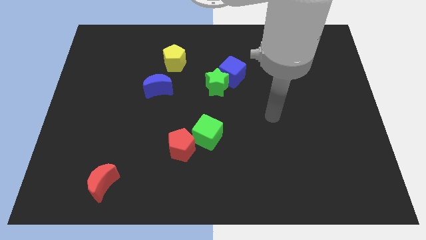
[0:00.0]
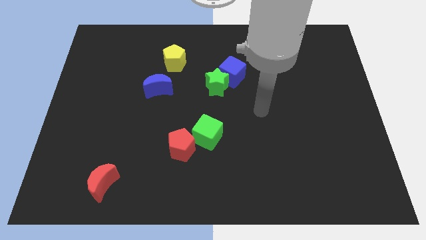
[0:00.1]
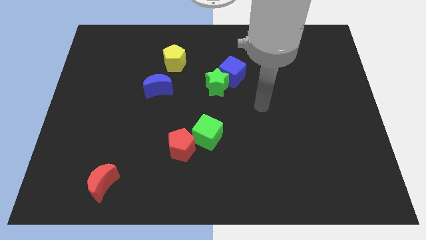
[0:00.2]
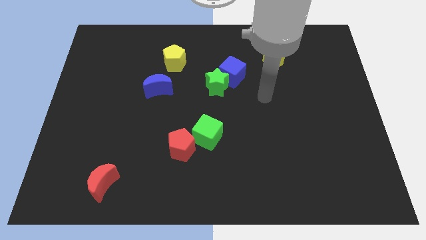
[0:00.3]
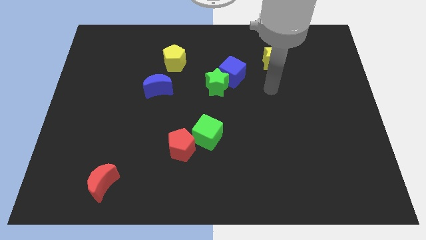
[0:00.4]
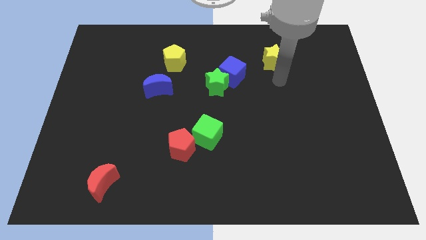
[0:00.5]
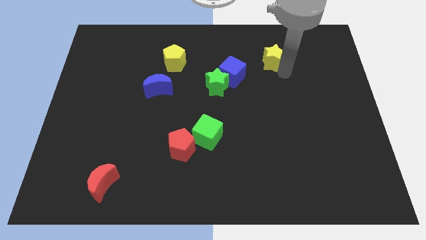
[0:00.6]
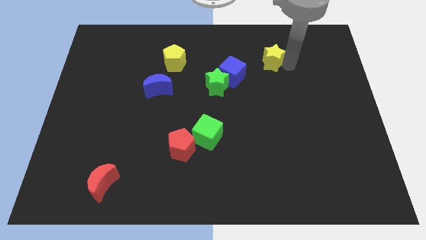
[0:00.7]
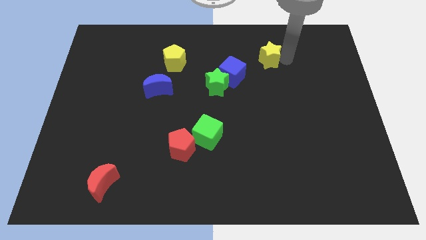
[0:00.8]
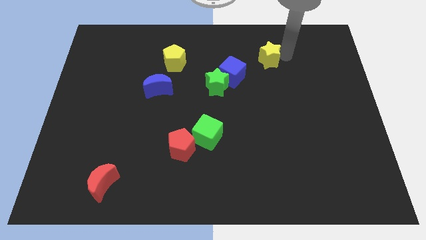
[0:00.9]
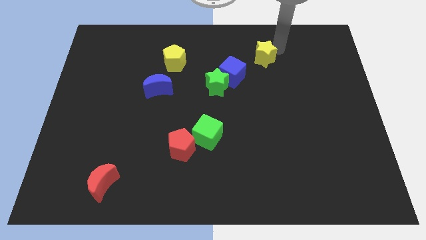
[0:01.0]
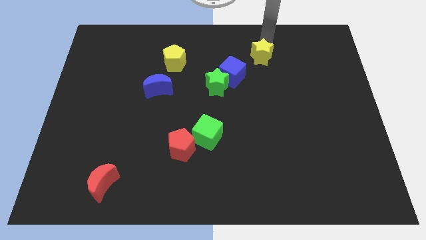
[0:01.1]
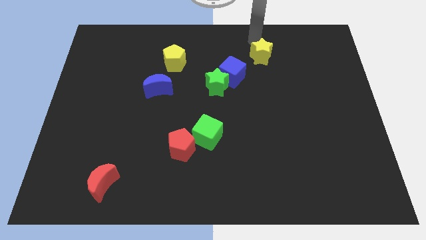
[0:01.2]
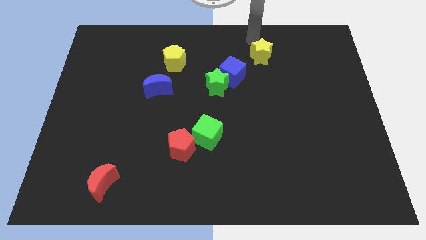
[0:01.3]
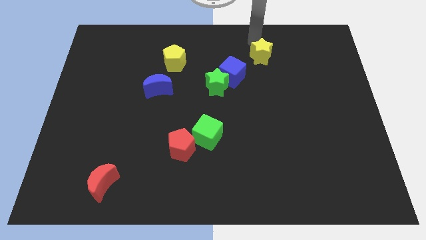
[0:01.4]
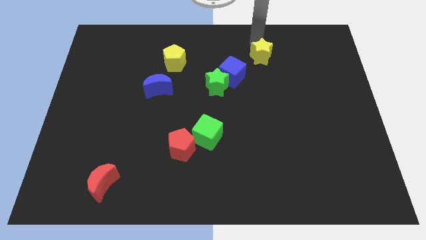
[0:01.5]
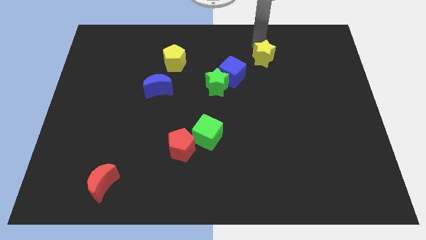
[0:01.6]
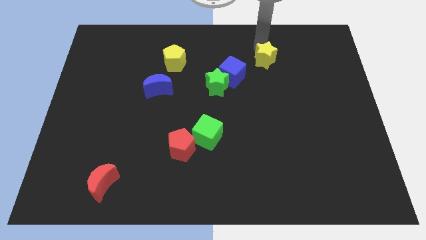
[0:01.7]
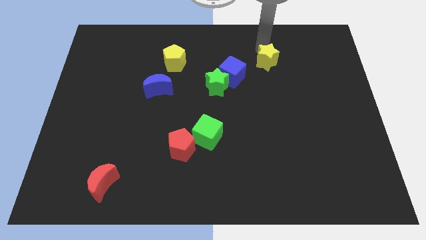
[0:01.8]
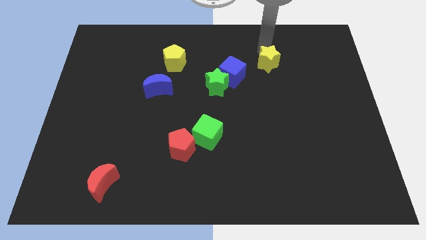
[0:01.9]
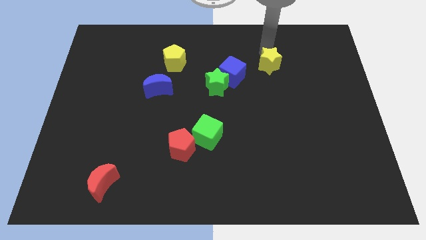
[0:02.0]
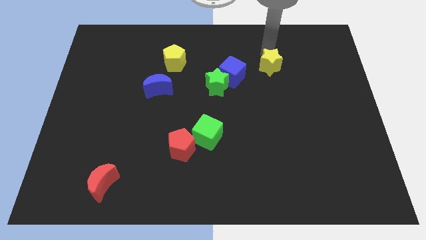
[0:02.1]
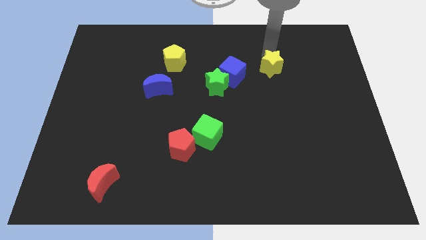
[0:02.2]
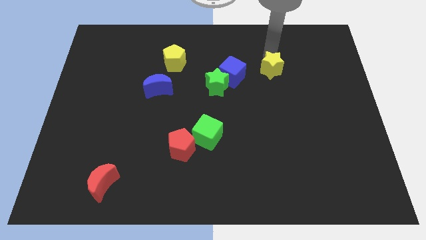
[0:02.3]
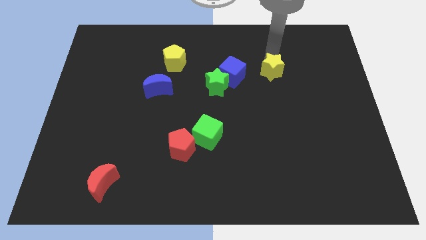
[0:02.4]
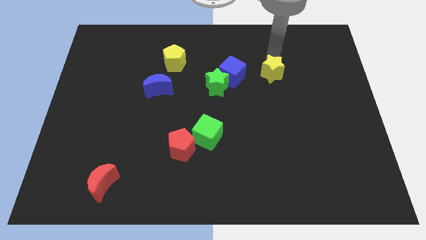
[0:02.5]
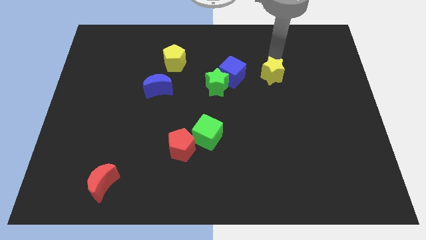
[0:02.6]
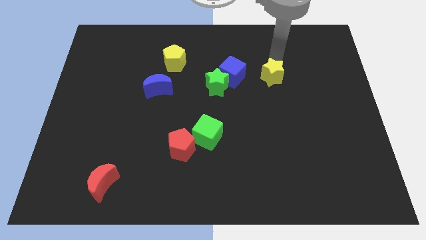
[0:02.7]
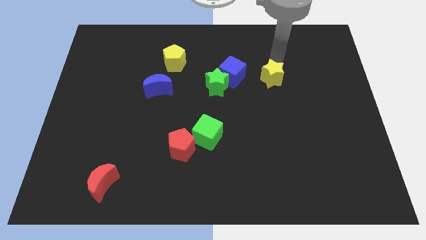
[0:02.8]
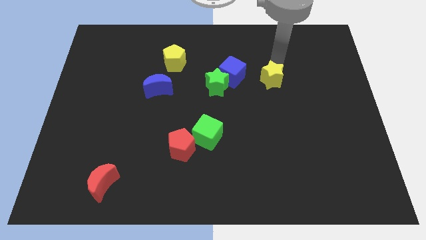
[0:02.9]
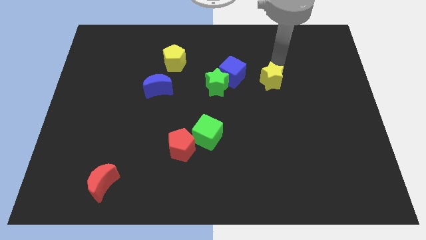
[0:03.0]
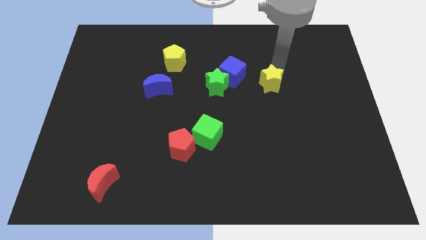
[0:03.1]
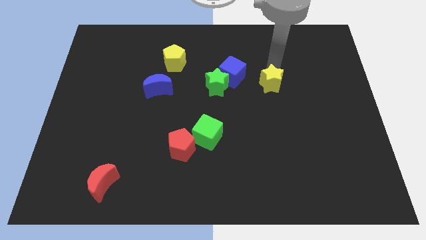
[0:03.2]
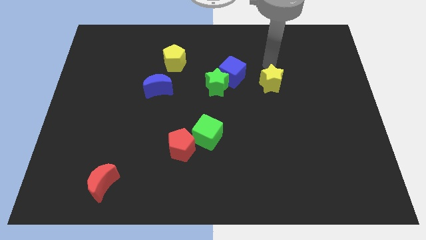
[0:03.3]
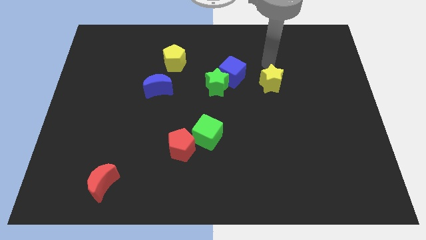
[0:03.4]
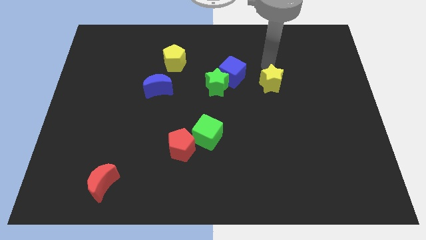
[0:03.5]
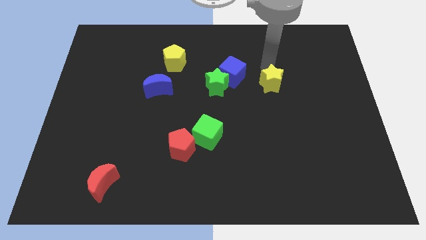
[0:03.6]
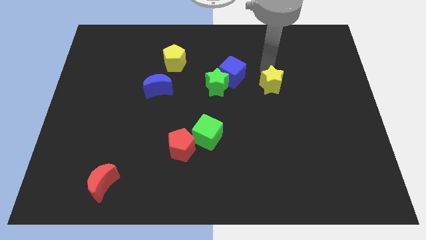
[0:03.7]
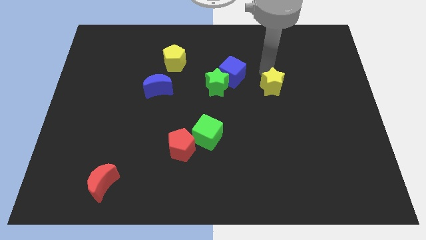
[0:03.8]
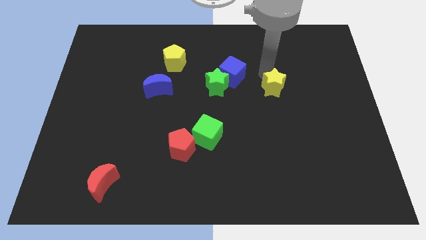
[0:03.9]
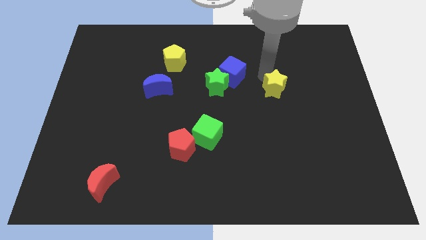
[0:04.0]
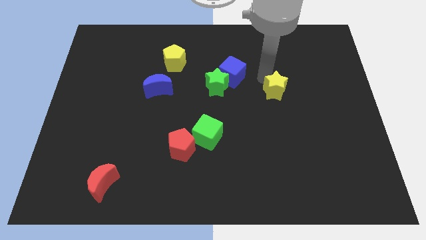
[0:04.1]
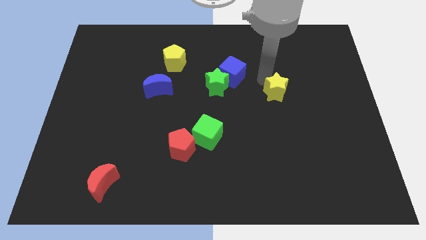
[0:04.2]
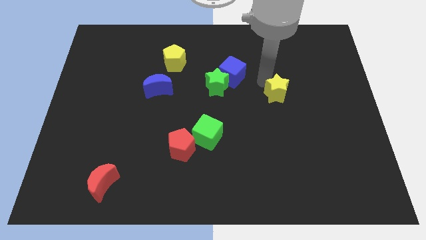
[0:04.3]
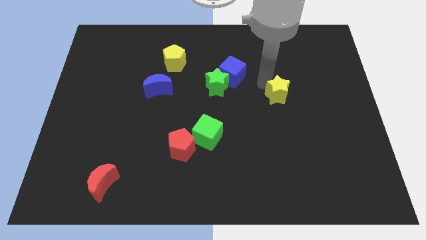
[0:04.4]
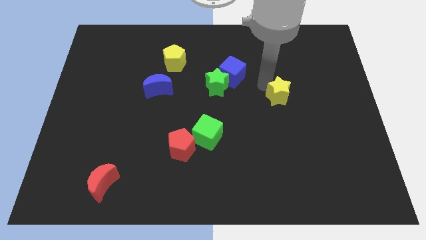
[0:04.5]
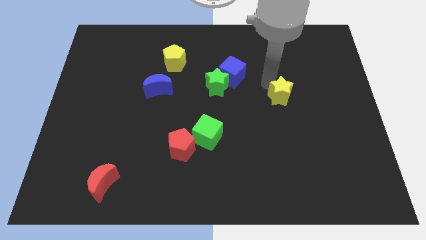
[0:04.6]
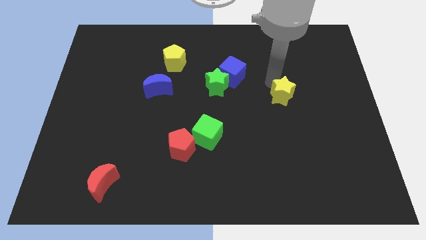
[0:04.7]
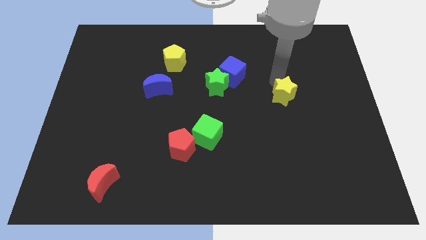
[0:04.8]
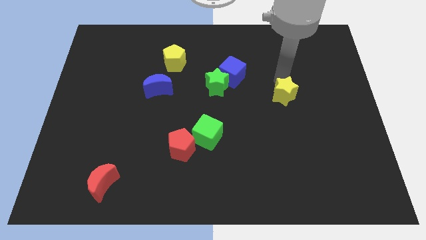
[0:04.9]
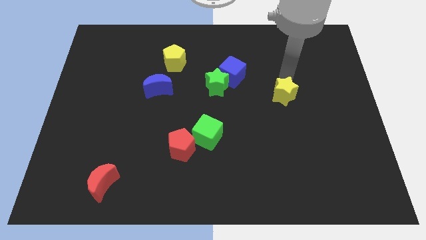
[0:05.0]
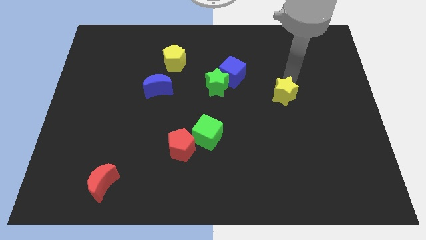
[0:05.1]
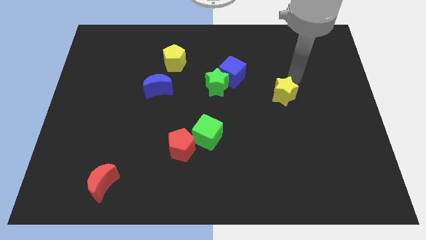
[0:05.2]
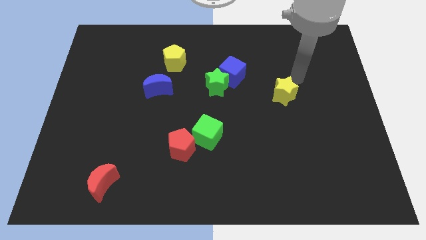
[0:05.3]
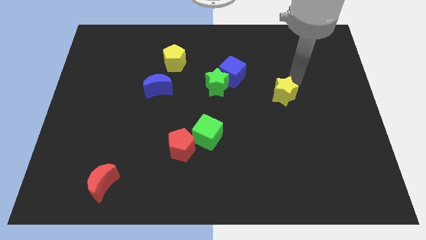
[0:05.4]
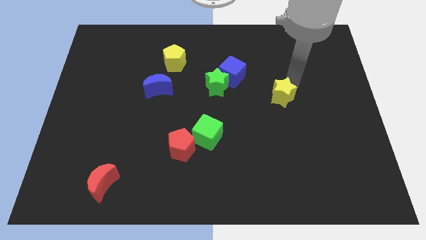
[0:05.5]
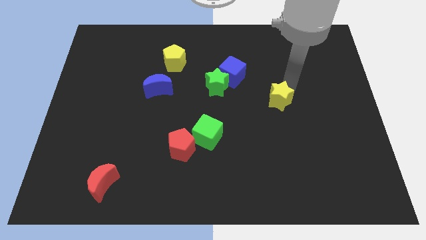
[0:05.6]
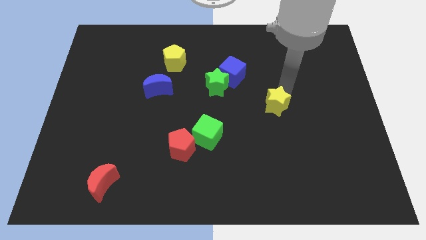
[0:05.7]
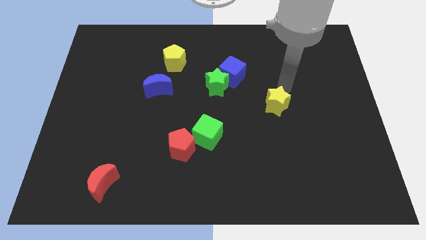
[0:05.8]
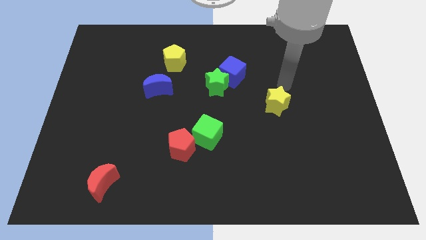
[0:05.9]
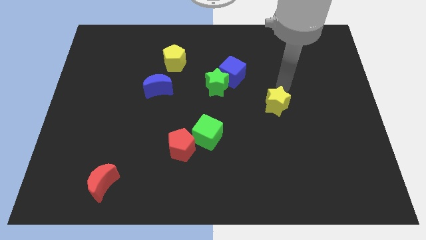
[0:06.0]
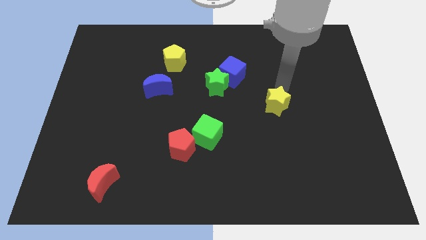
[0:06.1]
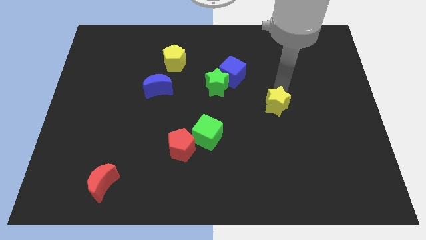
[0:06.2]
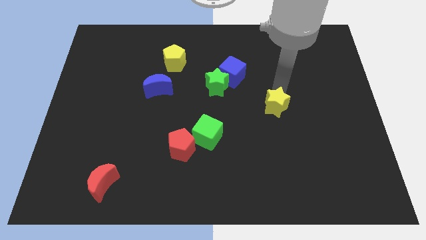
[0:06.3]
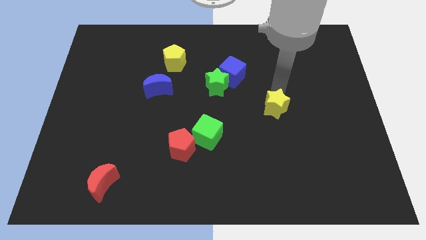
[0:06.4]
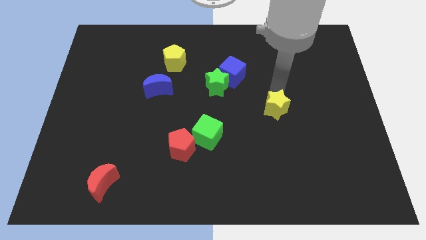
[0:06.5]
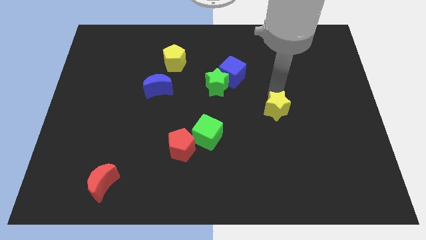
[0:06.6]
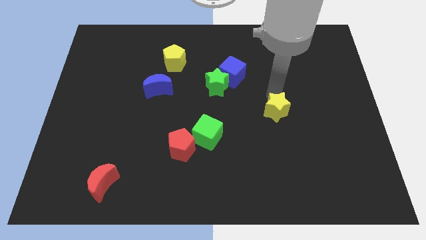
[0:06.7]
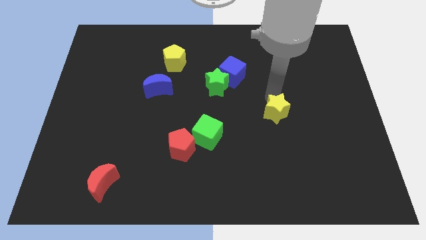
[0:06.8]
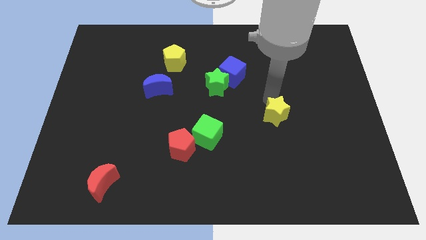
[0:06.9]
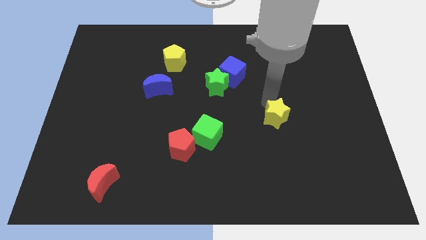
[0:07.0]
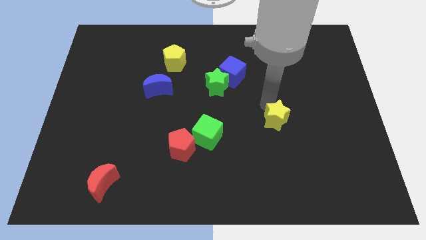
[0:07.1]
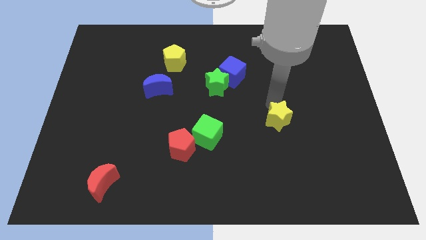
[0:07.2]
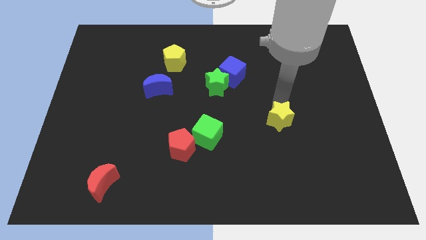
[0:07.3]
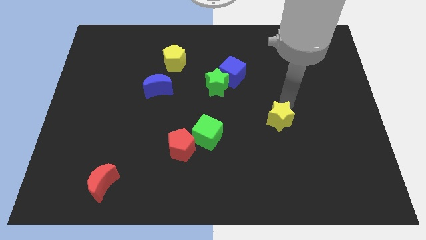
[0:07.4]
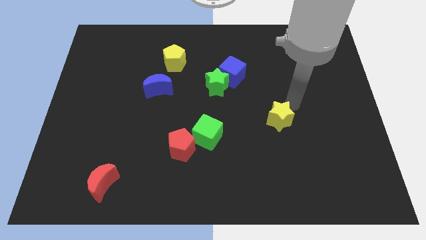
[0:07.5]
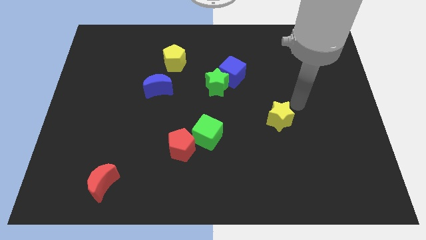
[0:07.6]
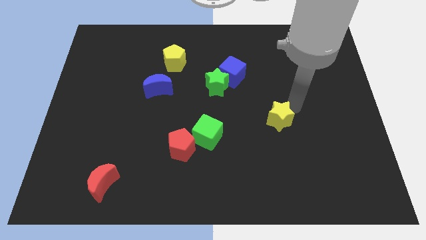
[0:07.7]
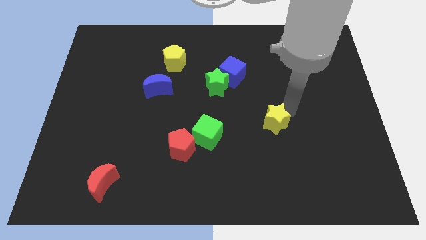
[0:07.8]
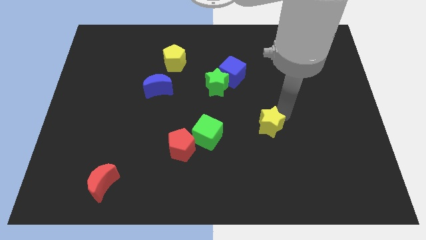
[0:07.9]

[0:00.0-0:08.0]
push the yellow star to the right of the green cube
